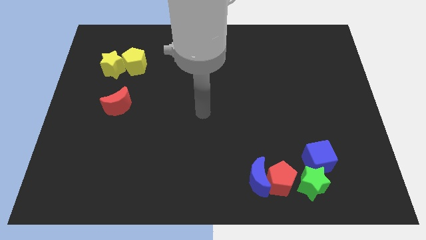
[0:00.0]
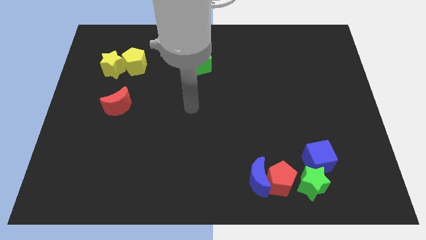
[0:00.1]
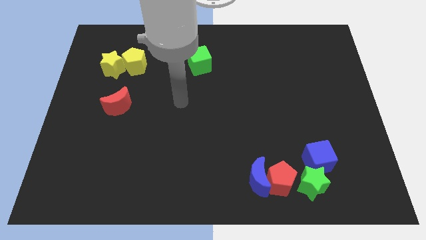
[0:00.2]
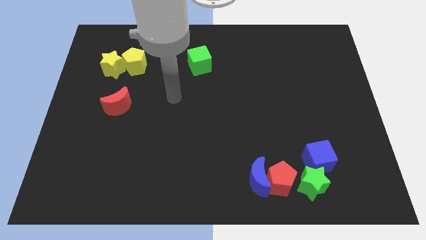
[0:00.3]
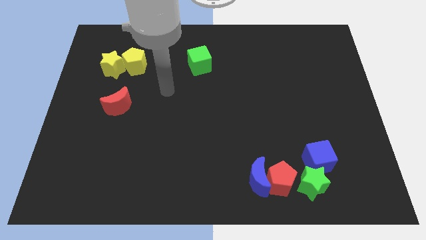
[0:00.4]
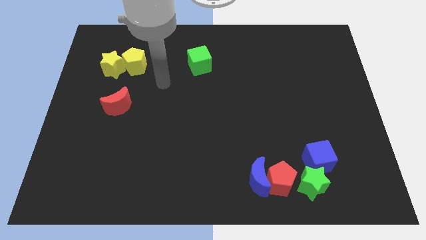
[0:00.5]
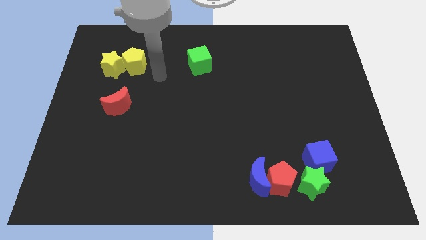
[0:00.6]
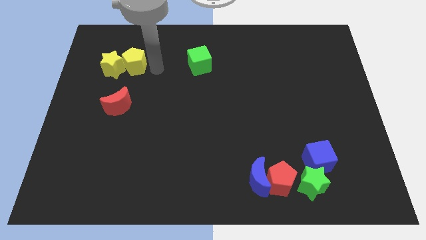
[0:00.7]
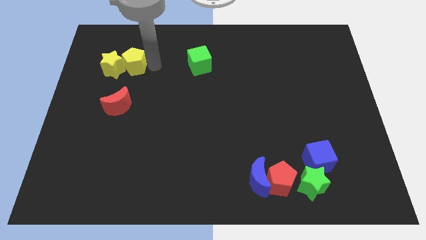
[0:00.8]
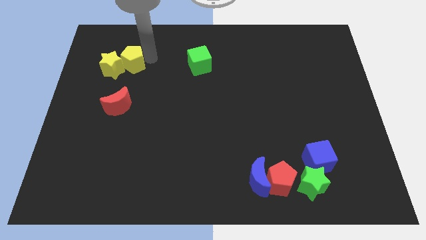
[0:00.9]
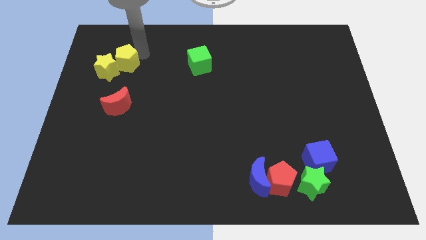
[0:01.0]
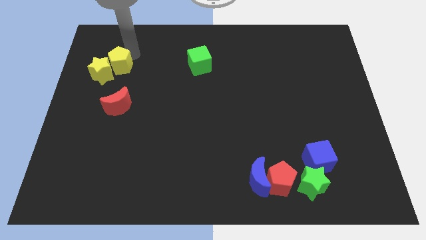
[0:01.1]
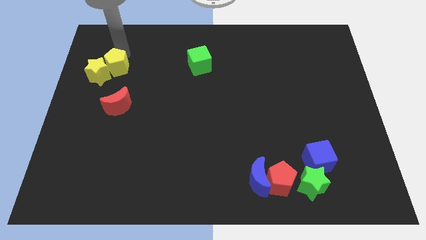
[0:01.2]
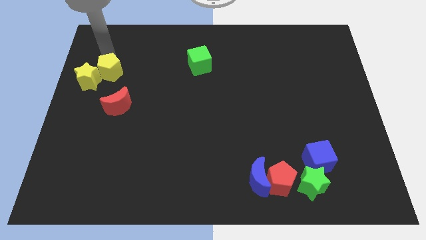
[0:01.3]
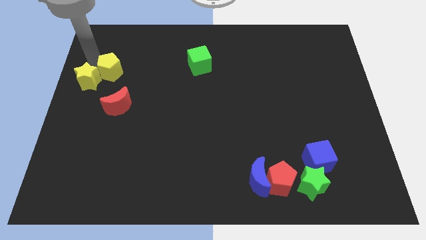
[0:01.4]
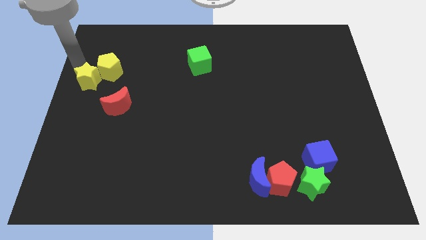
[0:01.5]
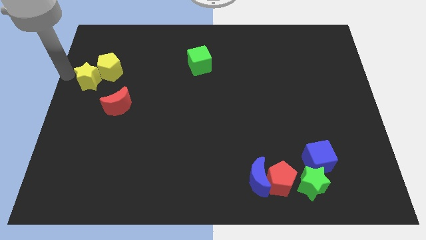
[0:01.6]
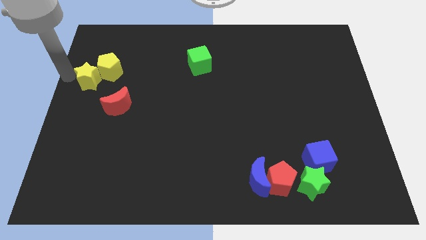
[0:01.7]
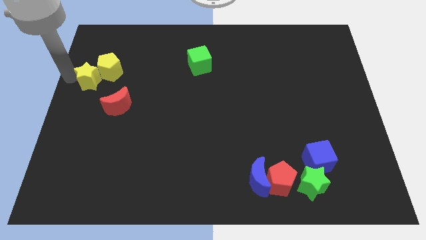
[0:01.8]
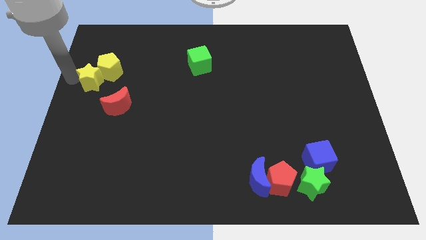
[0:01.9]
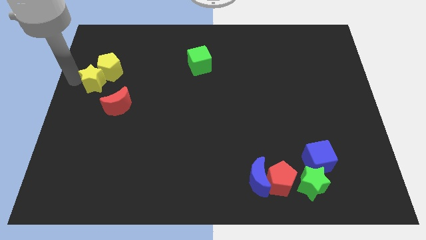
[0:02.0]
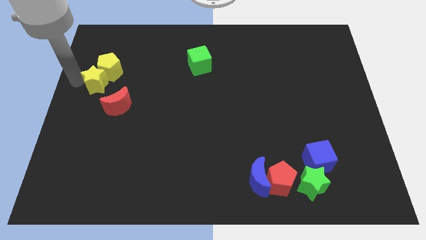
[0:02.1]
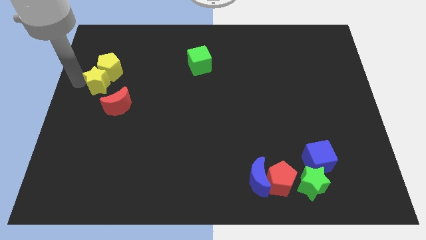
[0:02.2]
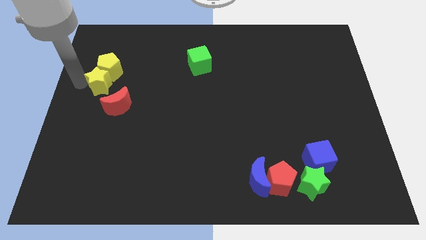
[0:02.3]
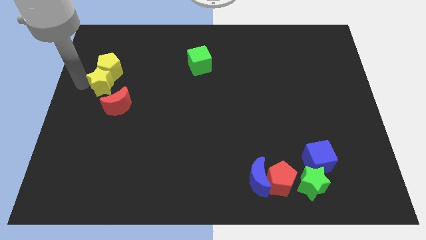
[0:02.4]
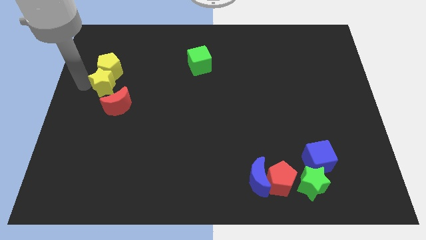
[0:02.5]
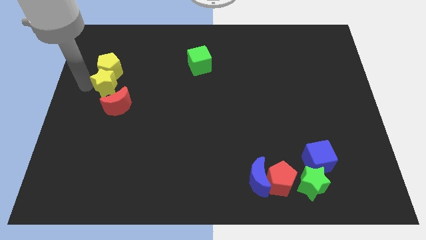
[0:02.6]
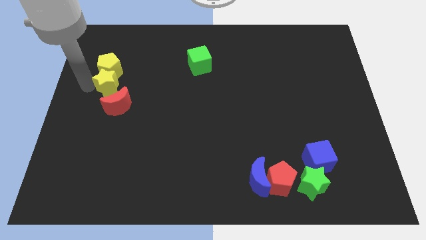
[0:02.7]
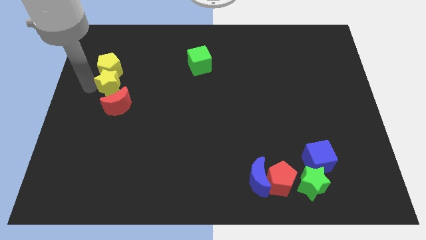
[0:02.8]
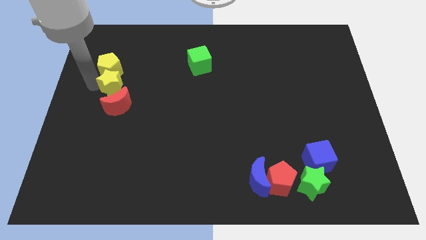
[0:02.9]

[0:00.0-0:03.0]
slightly move the yellow star down

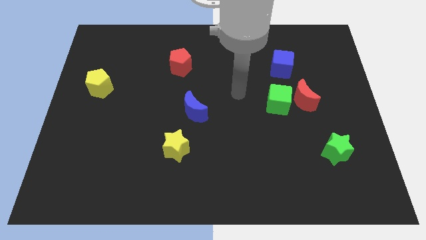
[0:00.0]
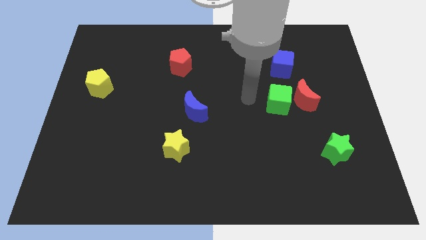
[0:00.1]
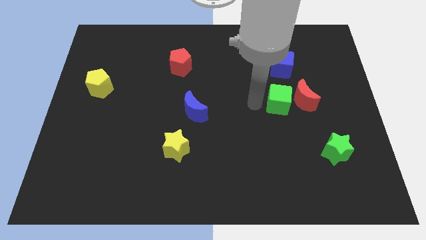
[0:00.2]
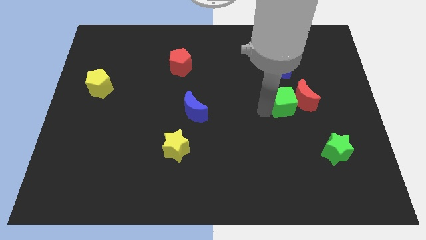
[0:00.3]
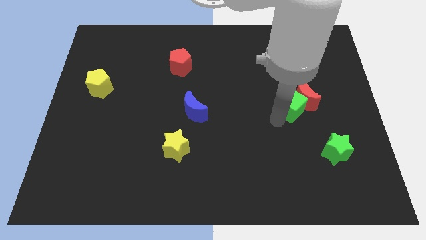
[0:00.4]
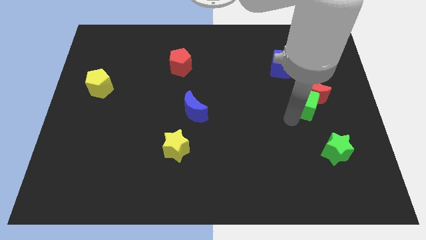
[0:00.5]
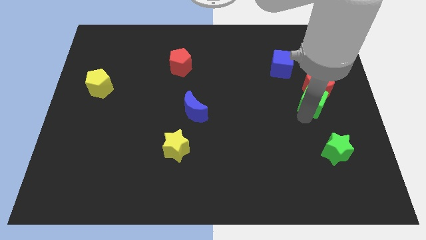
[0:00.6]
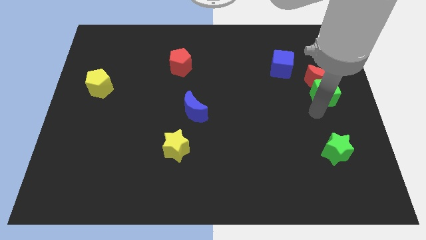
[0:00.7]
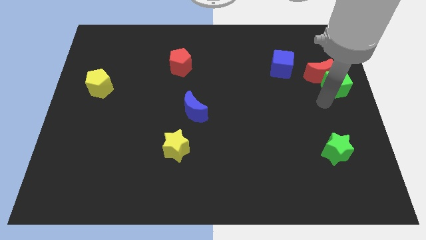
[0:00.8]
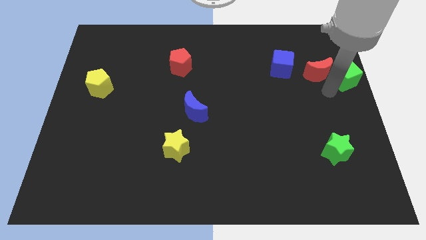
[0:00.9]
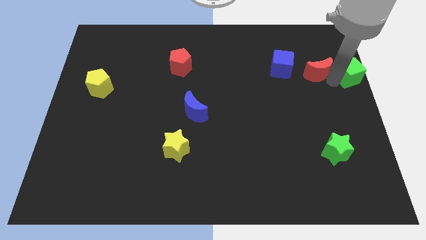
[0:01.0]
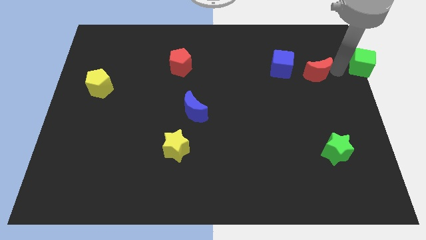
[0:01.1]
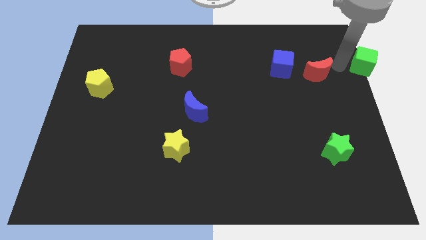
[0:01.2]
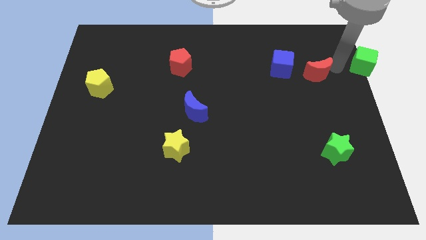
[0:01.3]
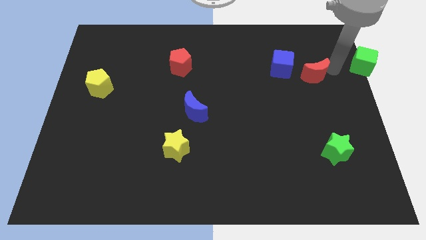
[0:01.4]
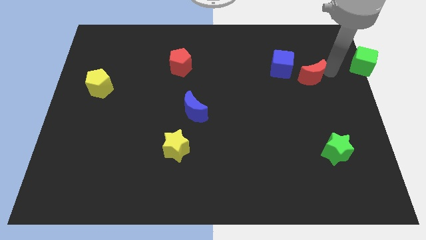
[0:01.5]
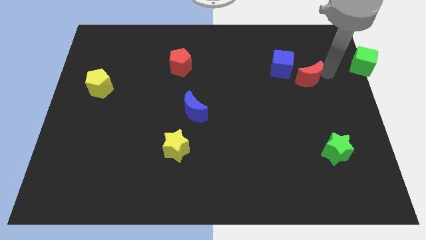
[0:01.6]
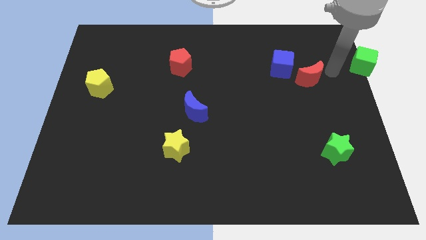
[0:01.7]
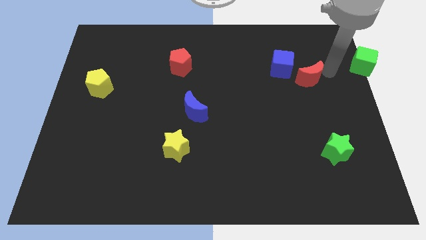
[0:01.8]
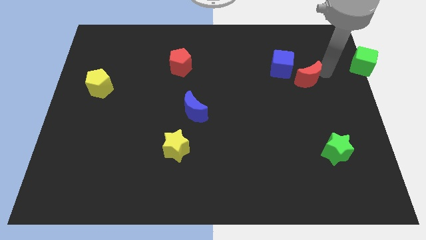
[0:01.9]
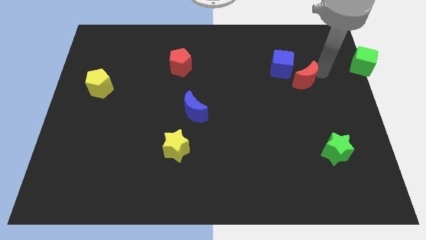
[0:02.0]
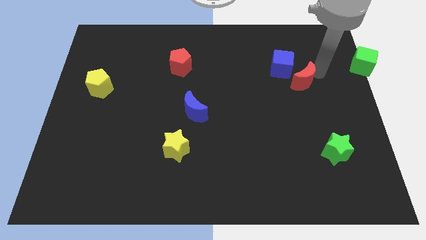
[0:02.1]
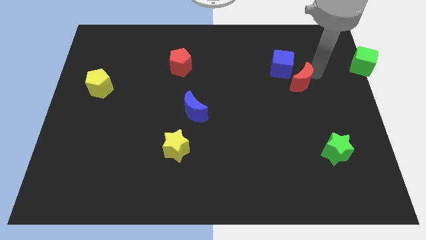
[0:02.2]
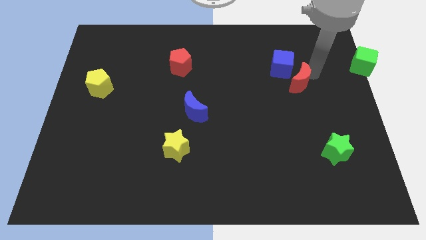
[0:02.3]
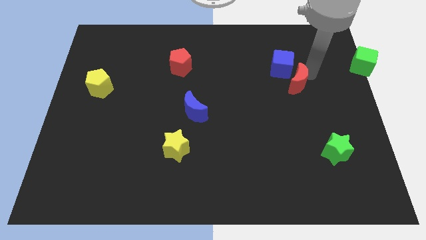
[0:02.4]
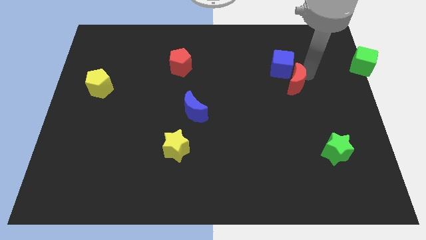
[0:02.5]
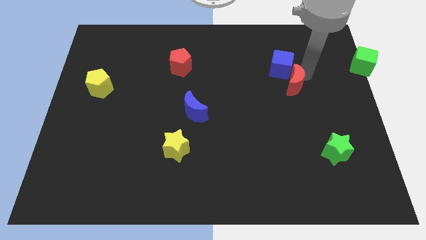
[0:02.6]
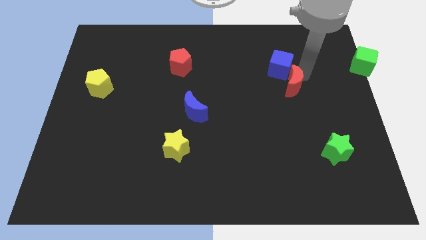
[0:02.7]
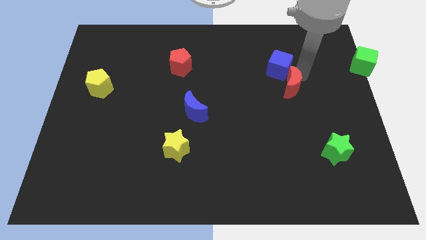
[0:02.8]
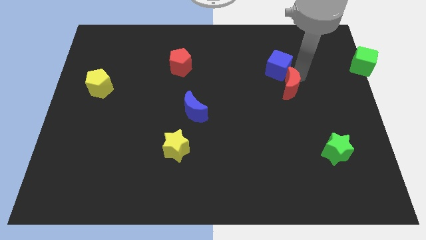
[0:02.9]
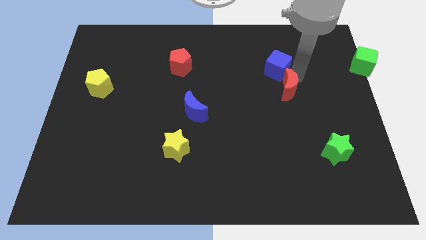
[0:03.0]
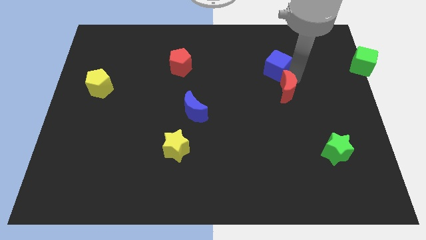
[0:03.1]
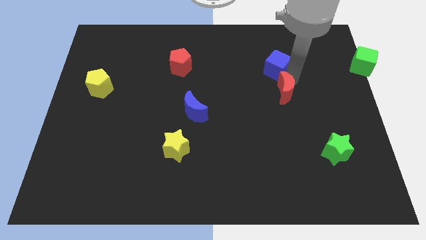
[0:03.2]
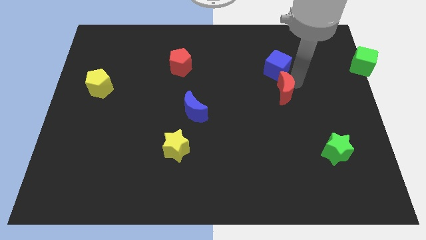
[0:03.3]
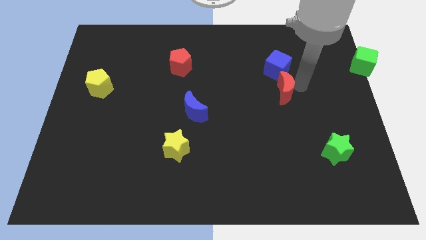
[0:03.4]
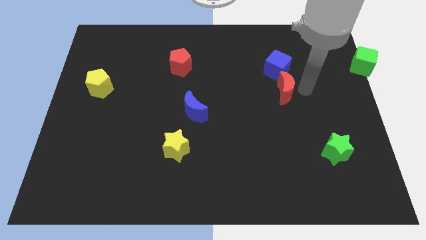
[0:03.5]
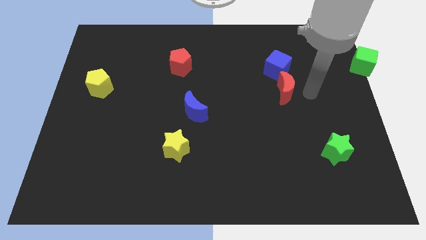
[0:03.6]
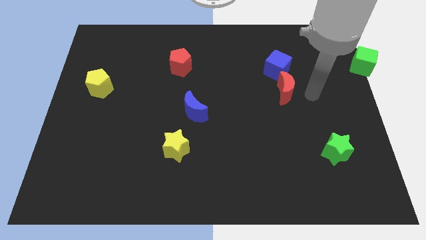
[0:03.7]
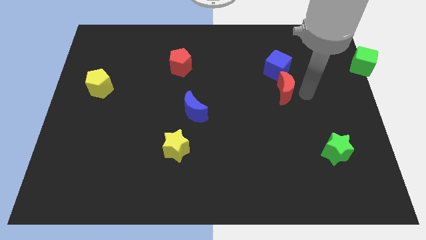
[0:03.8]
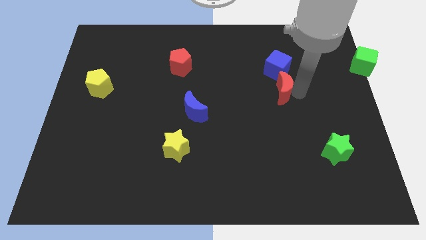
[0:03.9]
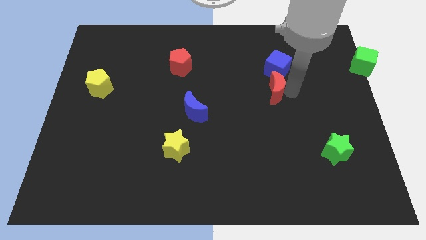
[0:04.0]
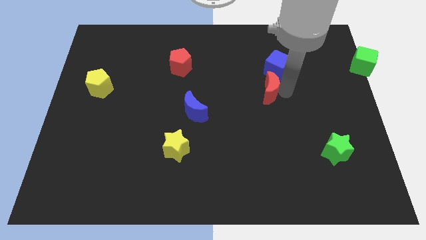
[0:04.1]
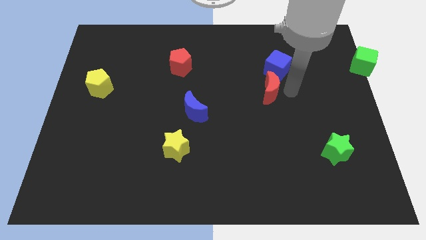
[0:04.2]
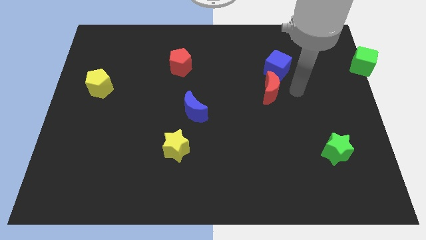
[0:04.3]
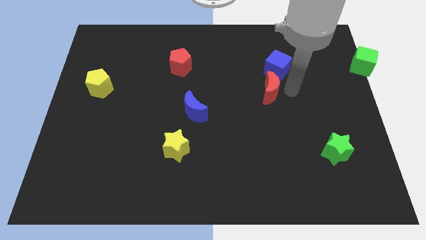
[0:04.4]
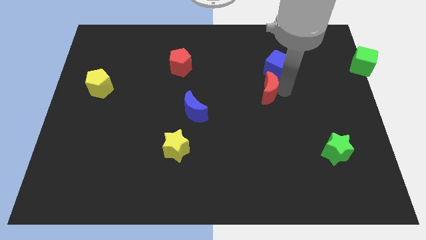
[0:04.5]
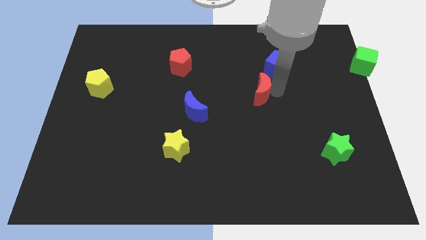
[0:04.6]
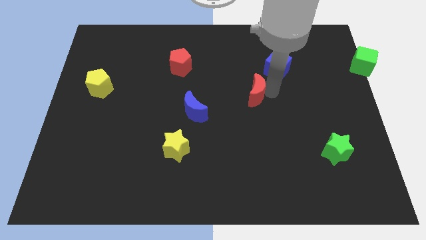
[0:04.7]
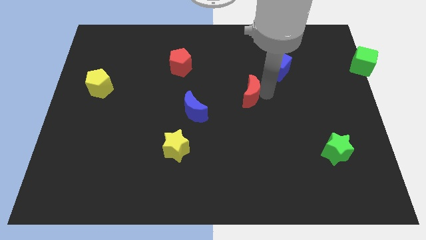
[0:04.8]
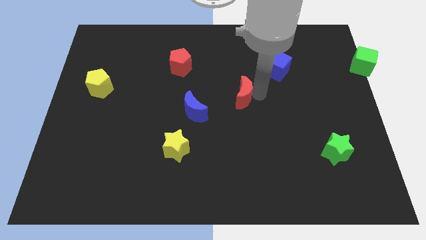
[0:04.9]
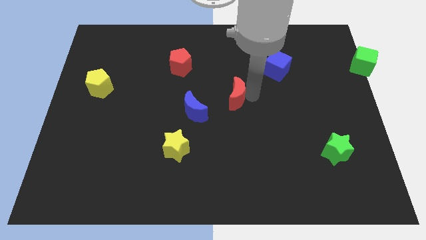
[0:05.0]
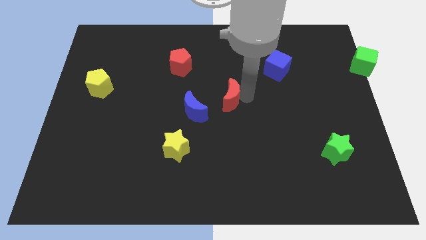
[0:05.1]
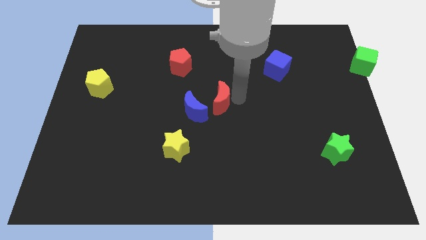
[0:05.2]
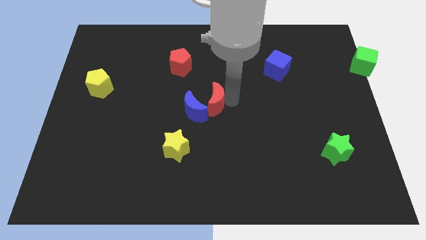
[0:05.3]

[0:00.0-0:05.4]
push the red moon left
